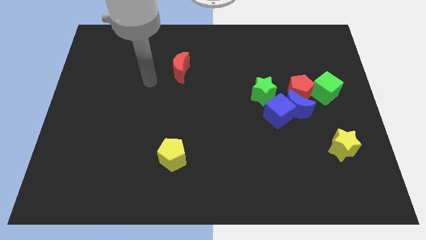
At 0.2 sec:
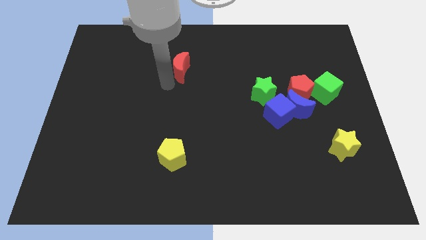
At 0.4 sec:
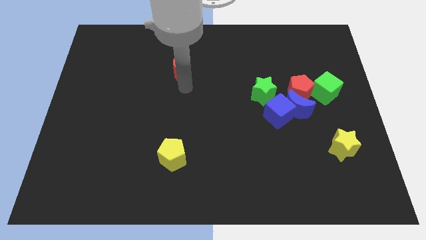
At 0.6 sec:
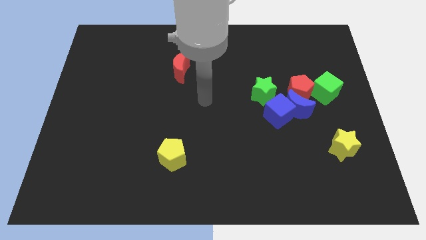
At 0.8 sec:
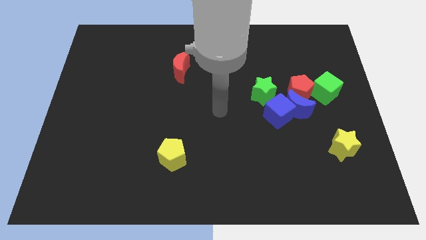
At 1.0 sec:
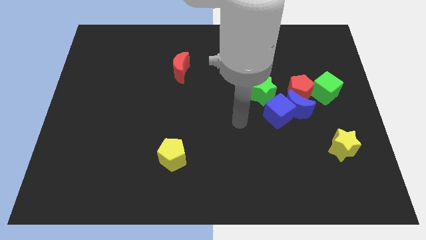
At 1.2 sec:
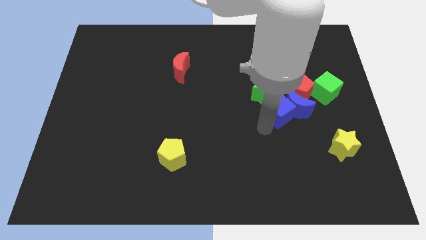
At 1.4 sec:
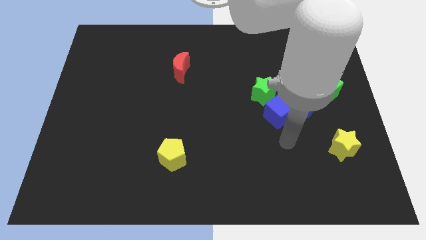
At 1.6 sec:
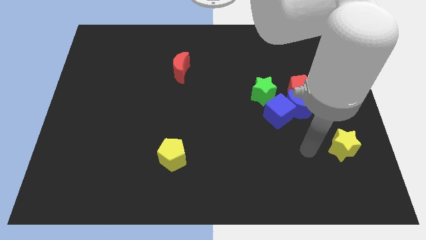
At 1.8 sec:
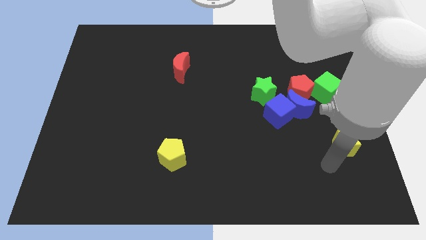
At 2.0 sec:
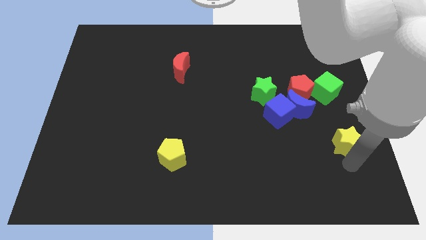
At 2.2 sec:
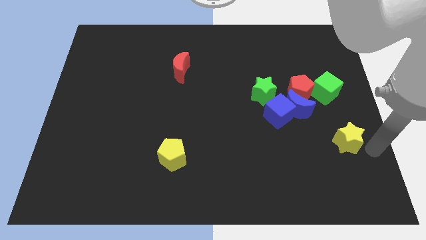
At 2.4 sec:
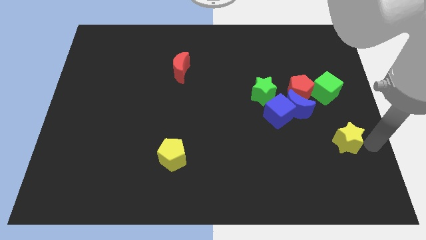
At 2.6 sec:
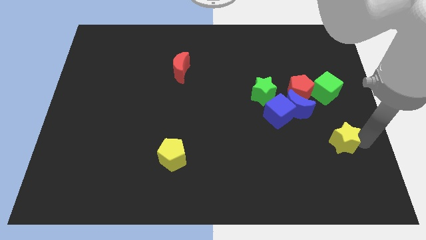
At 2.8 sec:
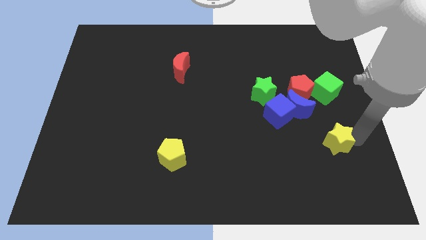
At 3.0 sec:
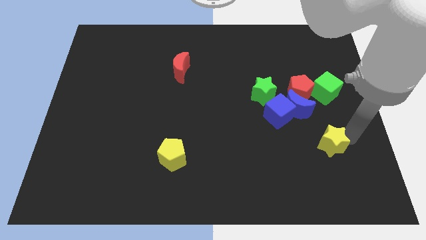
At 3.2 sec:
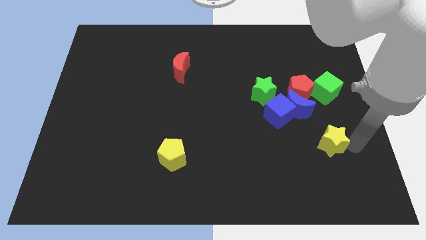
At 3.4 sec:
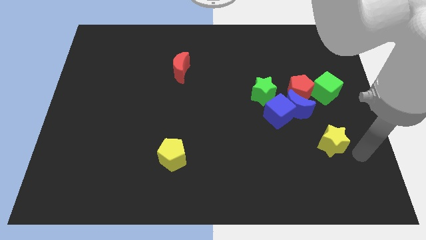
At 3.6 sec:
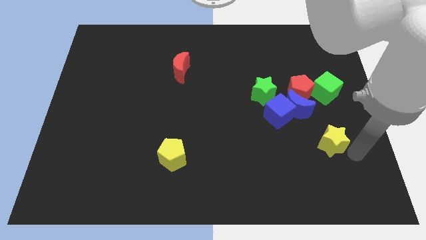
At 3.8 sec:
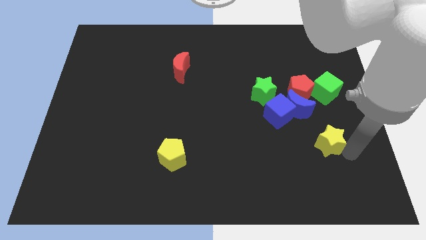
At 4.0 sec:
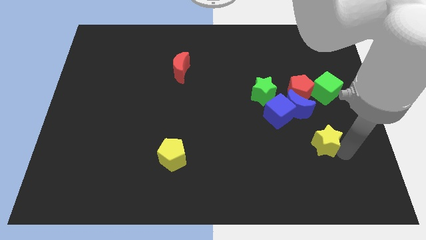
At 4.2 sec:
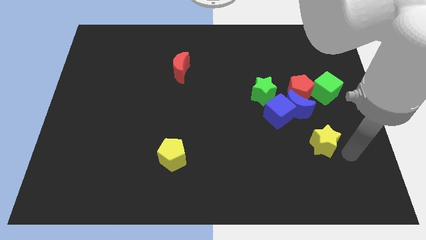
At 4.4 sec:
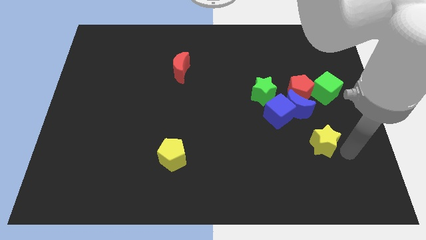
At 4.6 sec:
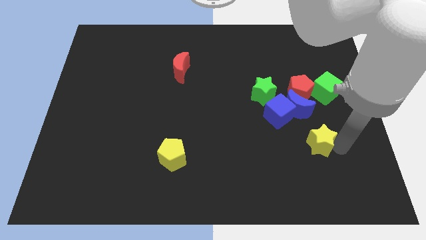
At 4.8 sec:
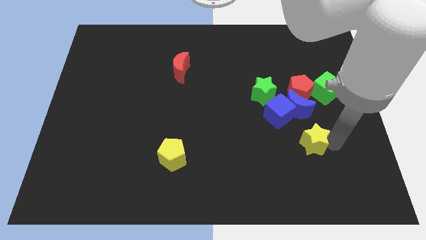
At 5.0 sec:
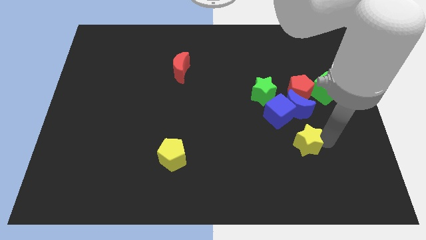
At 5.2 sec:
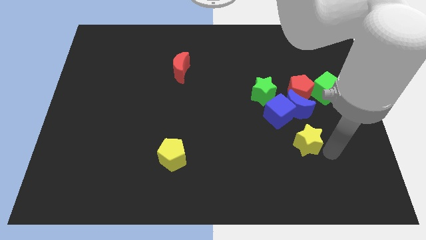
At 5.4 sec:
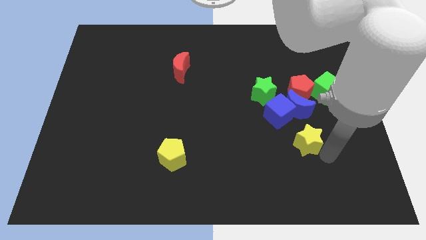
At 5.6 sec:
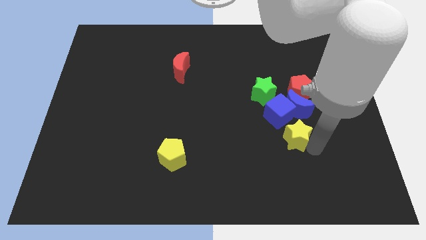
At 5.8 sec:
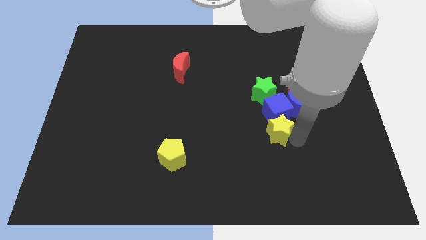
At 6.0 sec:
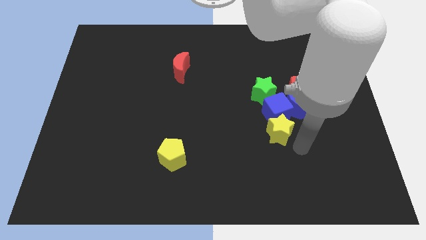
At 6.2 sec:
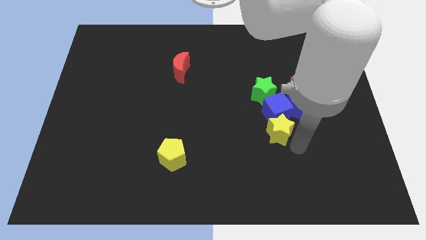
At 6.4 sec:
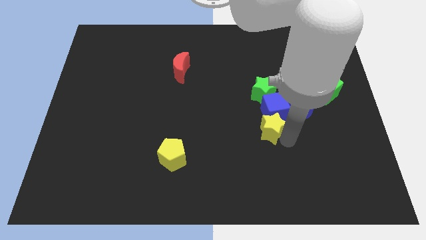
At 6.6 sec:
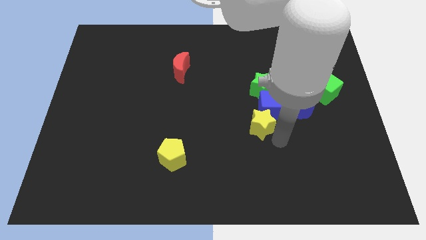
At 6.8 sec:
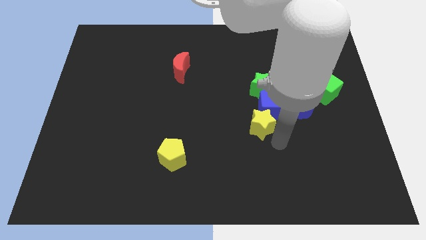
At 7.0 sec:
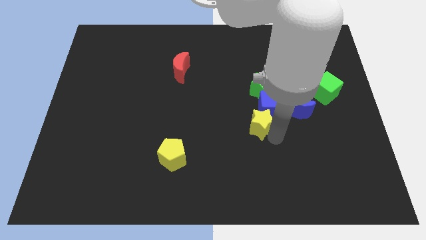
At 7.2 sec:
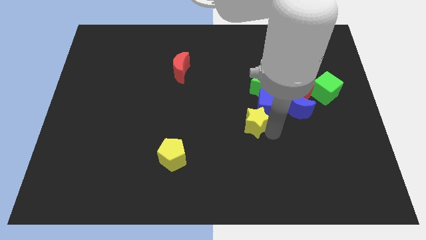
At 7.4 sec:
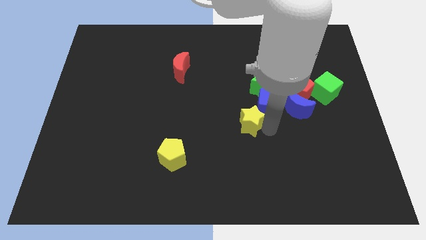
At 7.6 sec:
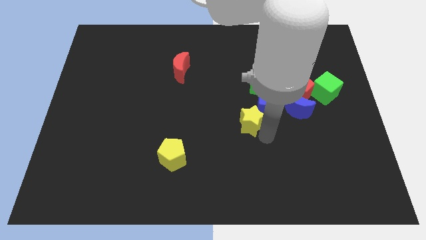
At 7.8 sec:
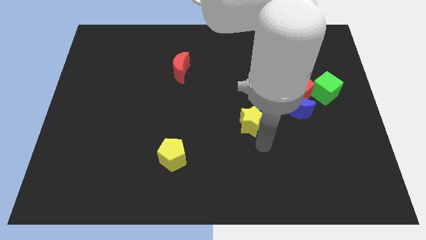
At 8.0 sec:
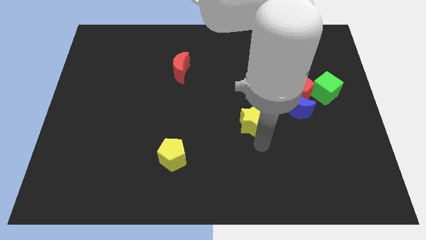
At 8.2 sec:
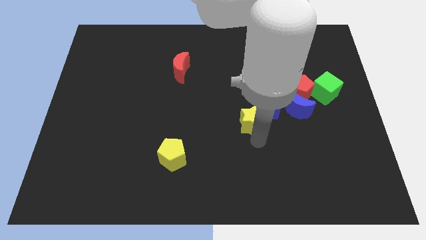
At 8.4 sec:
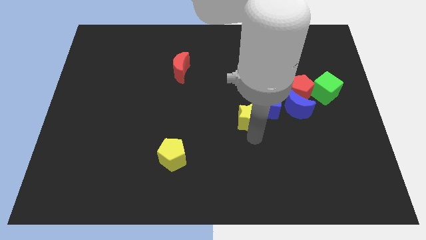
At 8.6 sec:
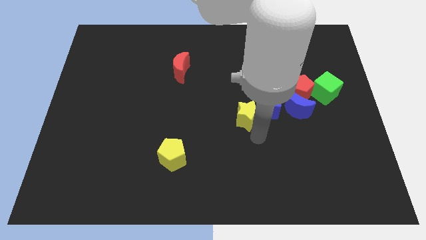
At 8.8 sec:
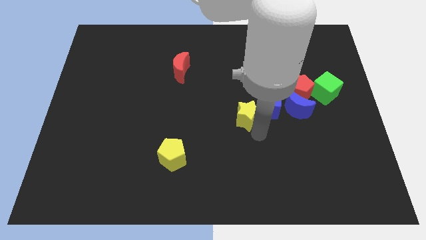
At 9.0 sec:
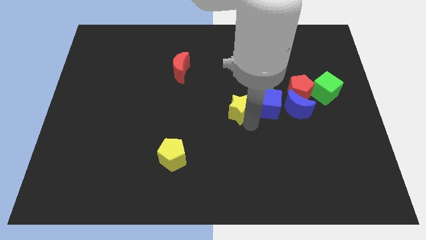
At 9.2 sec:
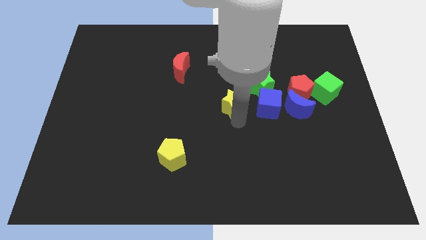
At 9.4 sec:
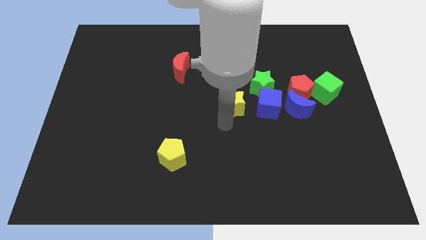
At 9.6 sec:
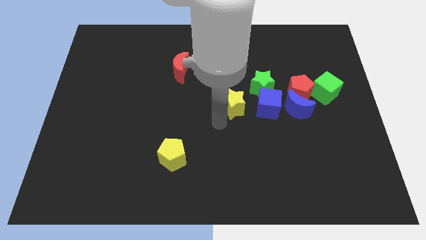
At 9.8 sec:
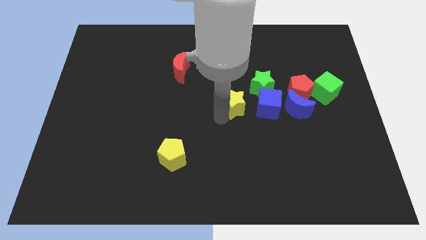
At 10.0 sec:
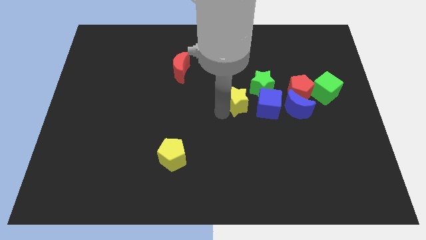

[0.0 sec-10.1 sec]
slide the yellow star to the top left of the blue cube

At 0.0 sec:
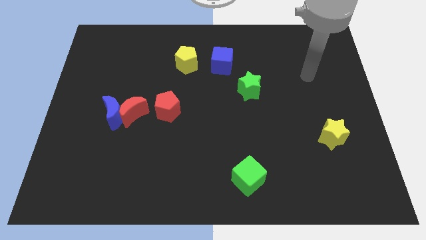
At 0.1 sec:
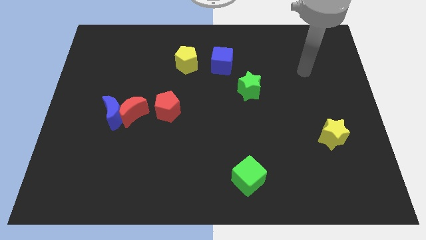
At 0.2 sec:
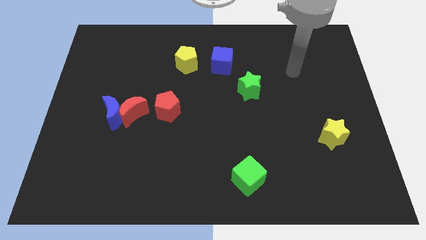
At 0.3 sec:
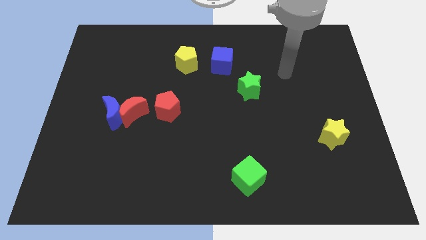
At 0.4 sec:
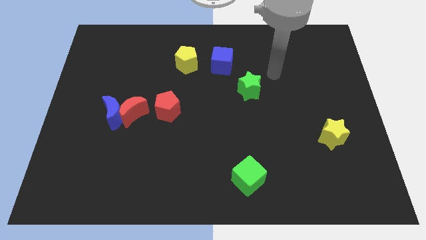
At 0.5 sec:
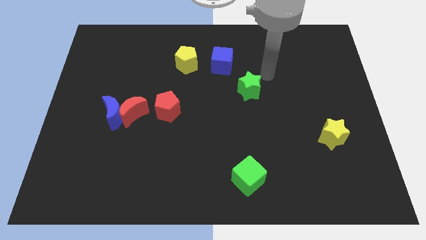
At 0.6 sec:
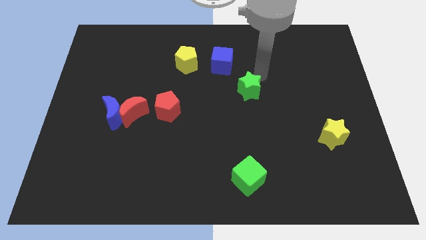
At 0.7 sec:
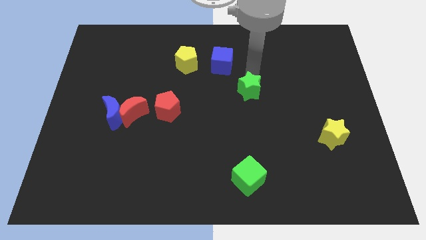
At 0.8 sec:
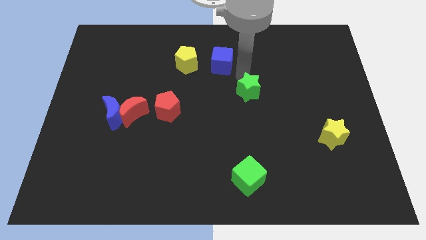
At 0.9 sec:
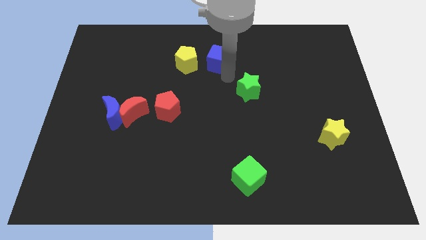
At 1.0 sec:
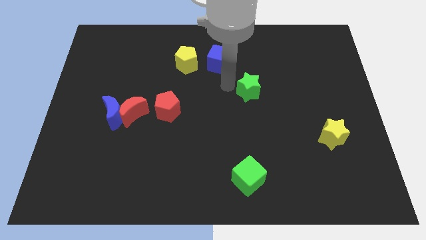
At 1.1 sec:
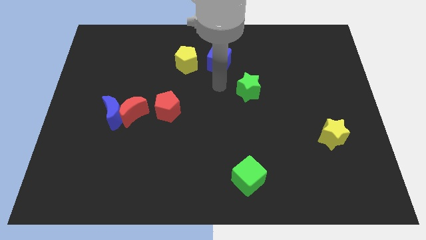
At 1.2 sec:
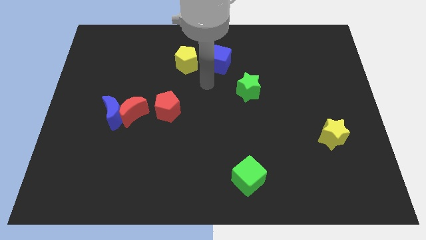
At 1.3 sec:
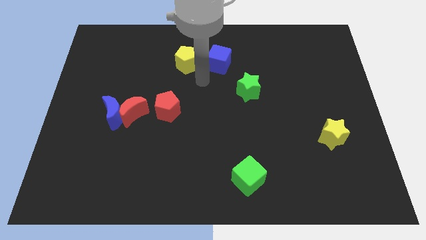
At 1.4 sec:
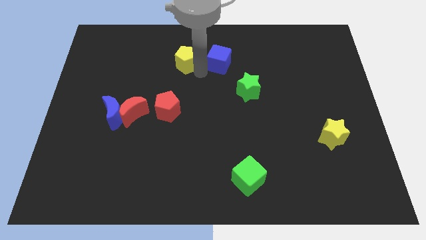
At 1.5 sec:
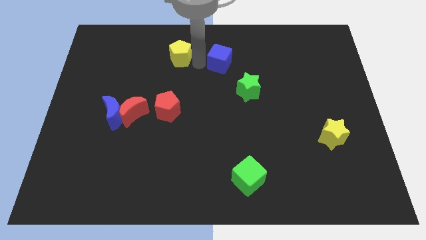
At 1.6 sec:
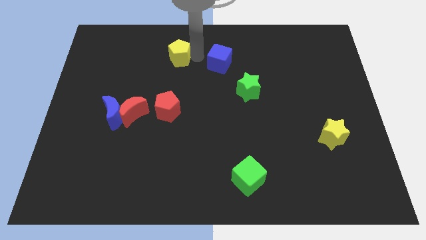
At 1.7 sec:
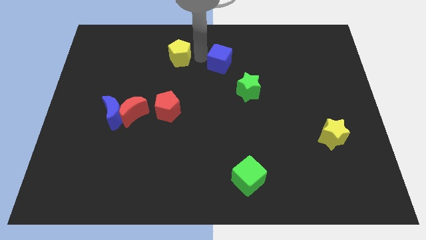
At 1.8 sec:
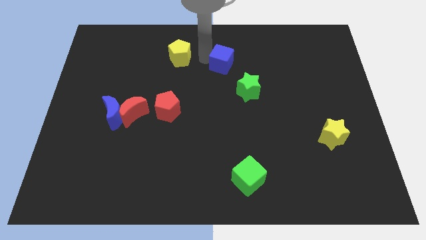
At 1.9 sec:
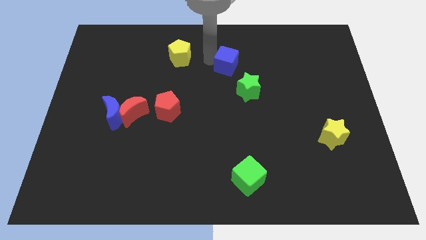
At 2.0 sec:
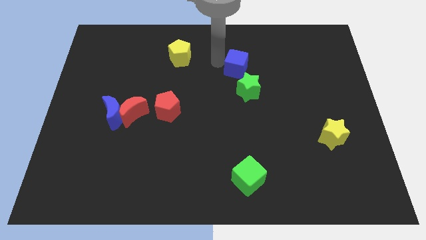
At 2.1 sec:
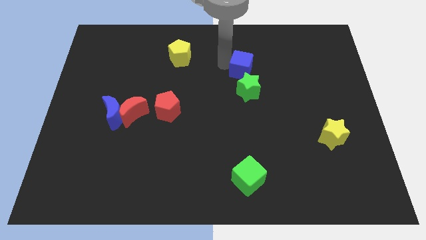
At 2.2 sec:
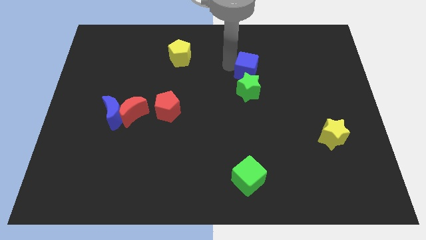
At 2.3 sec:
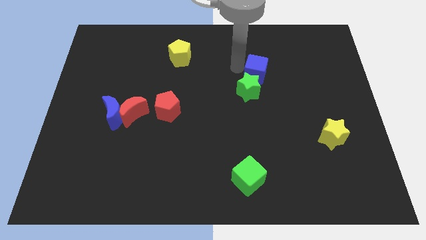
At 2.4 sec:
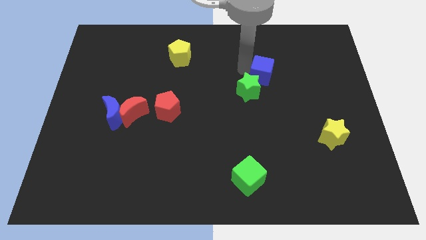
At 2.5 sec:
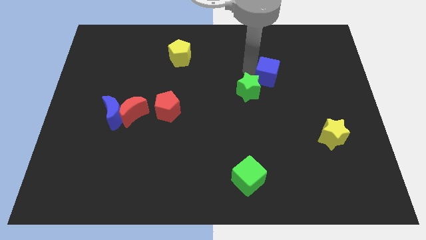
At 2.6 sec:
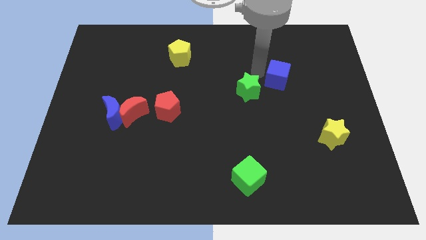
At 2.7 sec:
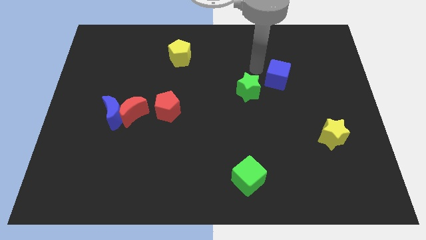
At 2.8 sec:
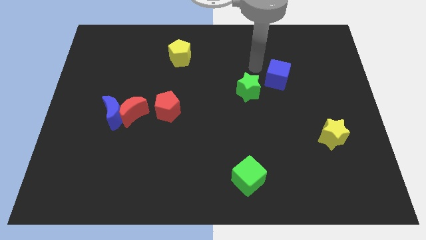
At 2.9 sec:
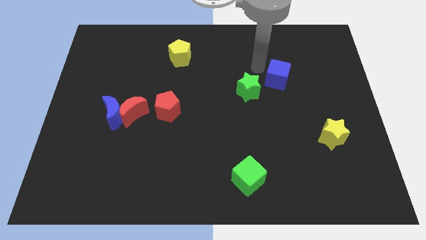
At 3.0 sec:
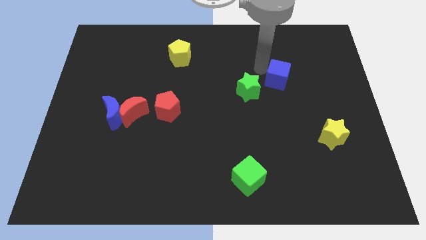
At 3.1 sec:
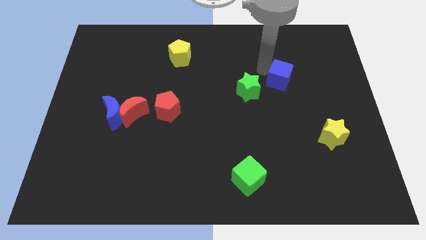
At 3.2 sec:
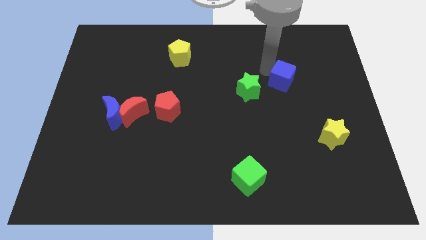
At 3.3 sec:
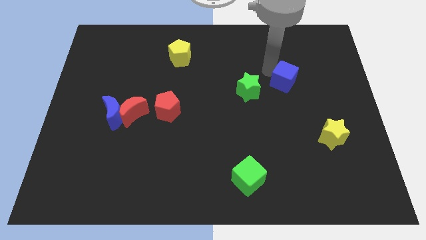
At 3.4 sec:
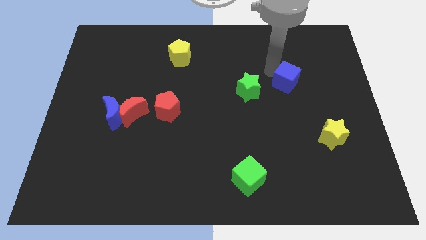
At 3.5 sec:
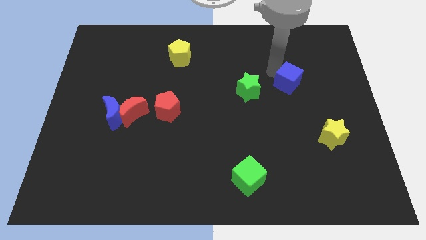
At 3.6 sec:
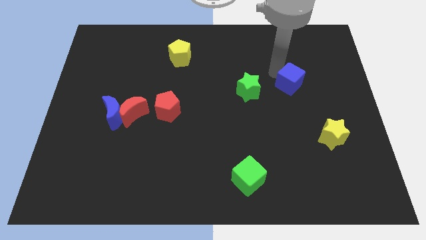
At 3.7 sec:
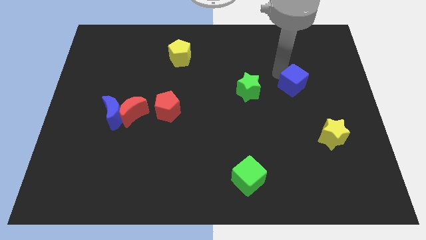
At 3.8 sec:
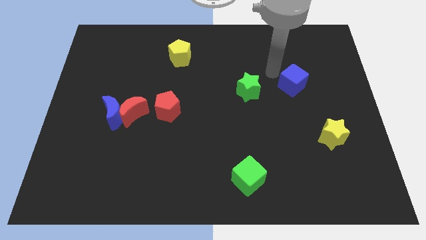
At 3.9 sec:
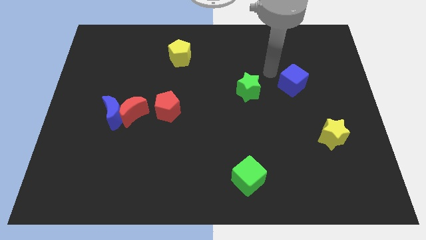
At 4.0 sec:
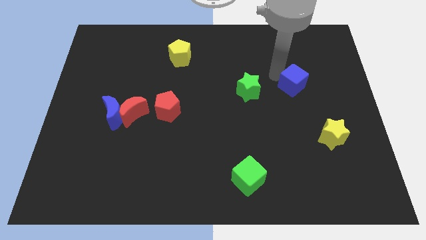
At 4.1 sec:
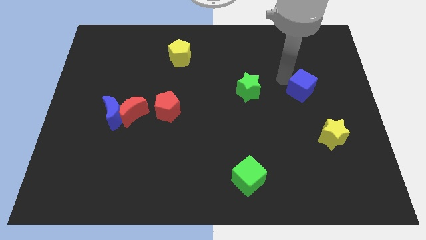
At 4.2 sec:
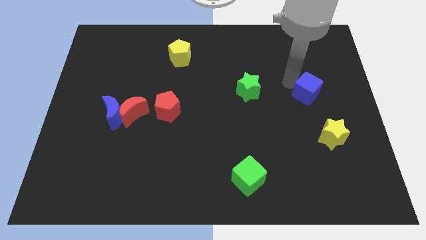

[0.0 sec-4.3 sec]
push the blue cube above the yellow star
